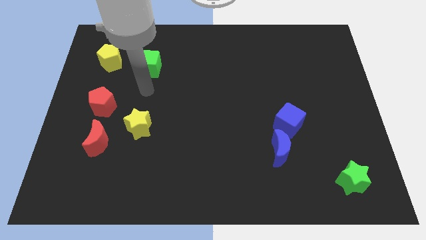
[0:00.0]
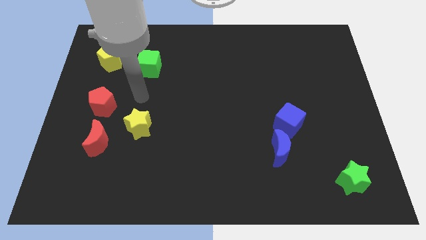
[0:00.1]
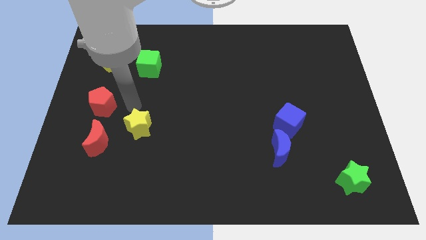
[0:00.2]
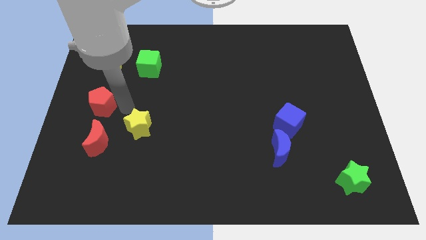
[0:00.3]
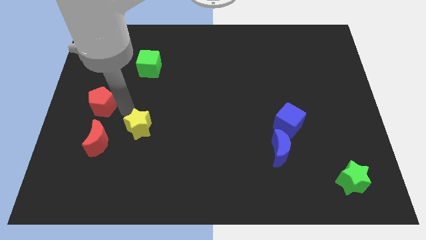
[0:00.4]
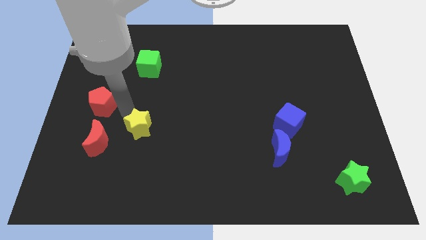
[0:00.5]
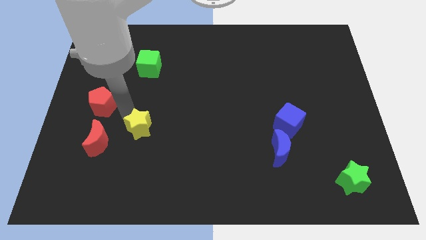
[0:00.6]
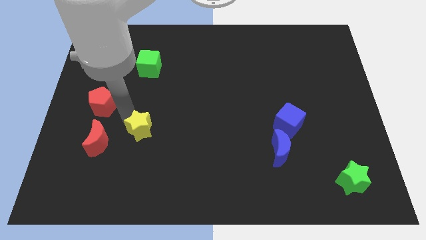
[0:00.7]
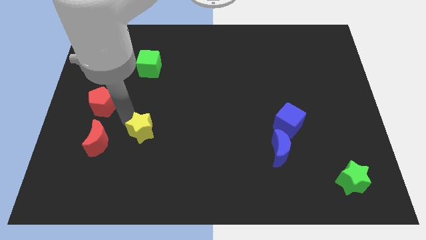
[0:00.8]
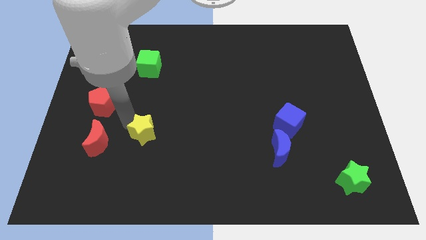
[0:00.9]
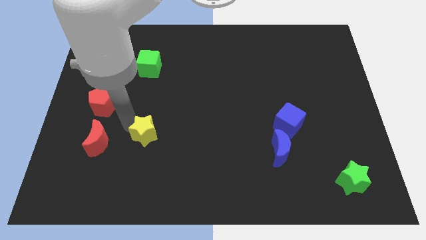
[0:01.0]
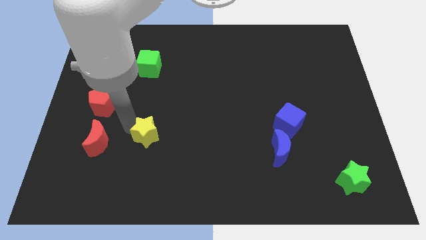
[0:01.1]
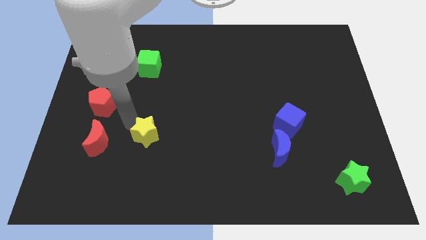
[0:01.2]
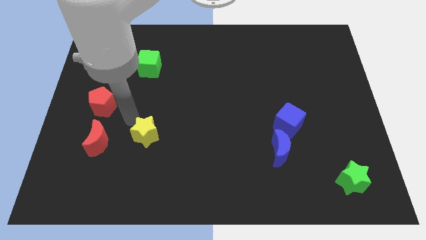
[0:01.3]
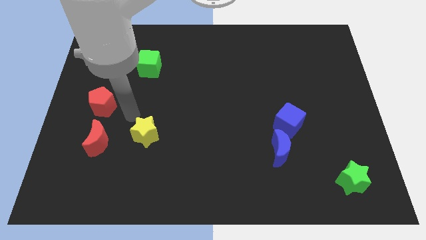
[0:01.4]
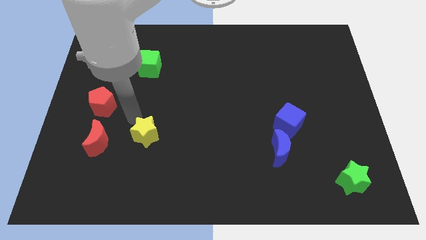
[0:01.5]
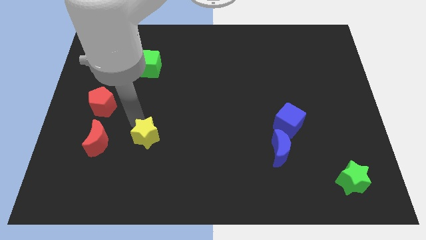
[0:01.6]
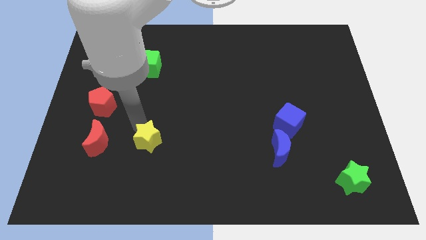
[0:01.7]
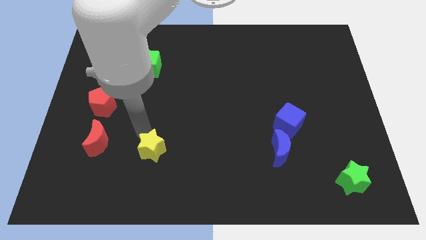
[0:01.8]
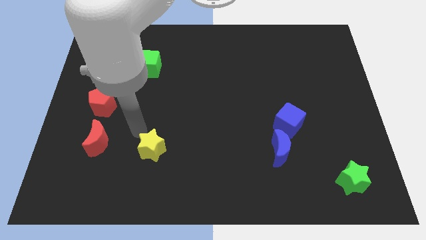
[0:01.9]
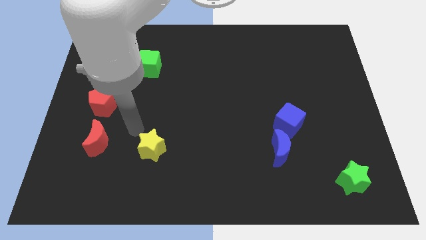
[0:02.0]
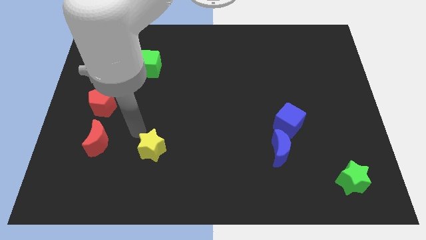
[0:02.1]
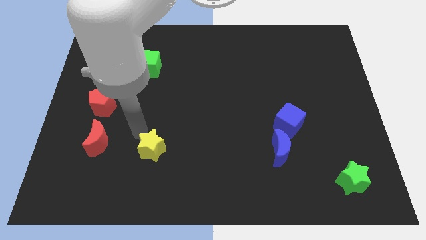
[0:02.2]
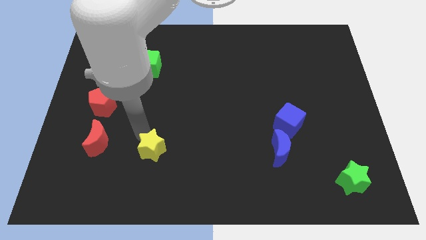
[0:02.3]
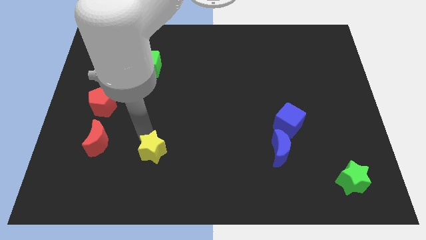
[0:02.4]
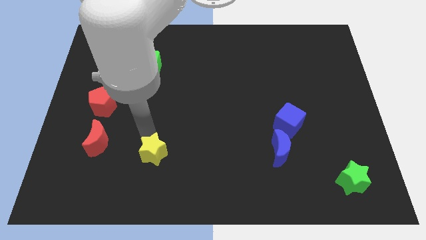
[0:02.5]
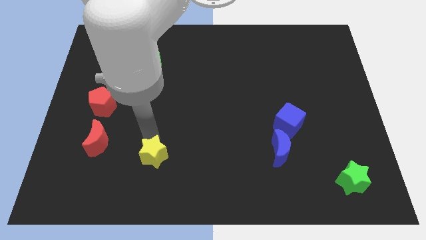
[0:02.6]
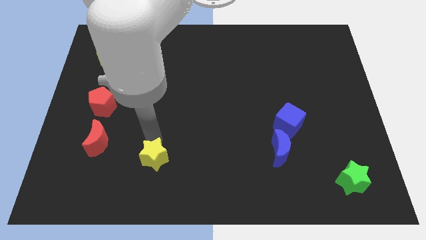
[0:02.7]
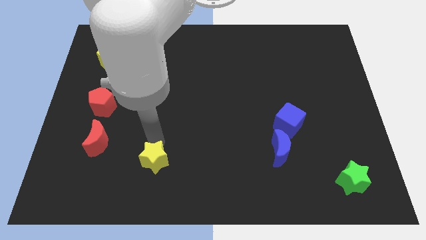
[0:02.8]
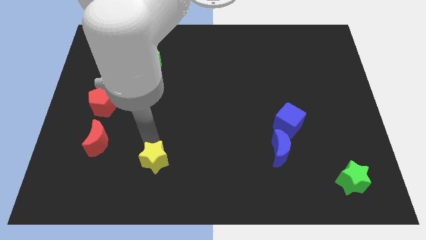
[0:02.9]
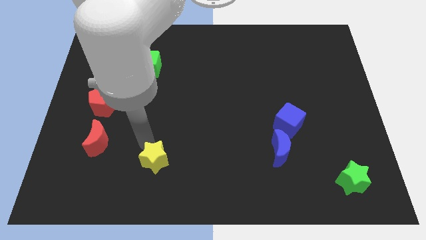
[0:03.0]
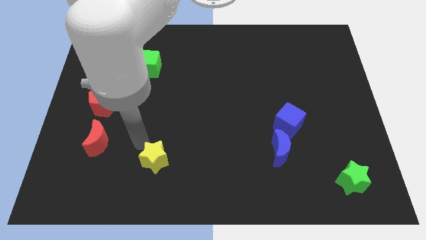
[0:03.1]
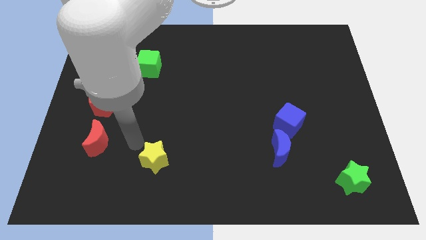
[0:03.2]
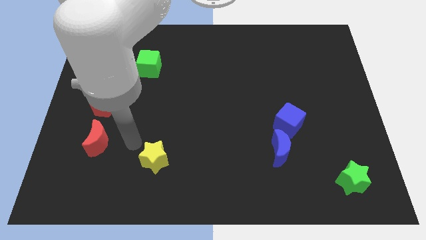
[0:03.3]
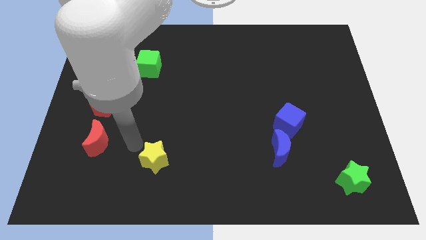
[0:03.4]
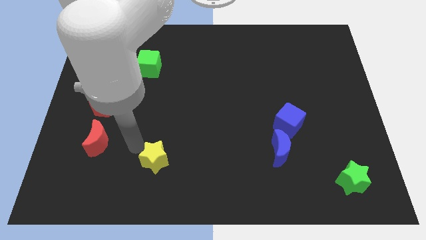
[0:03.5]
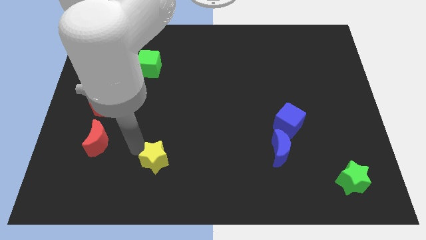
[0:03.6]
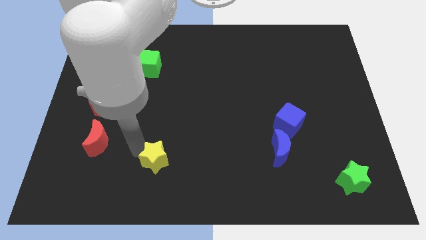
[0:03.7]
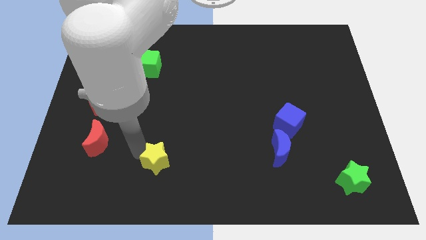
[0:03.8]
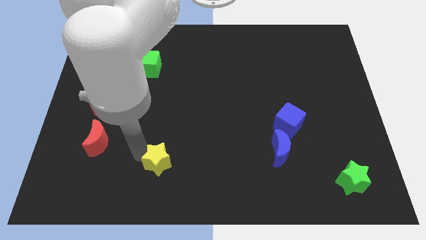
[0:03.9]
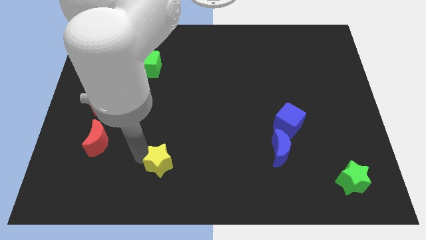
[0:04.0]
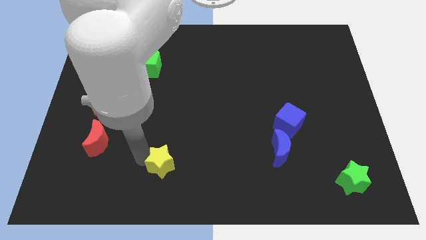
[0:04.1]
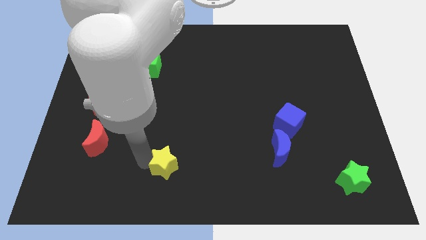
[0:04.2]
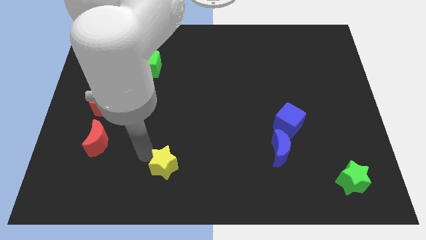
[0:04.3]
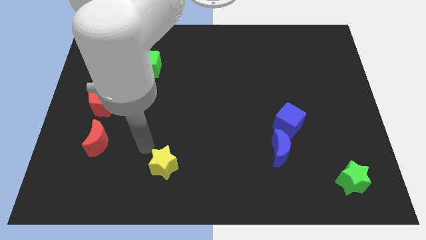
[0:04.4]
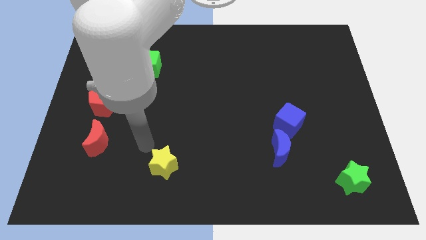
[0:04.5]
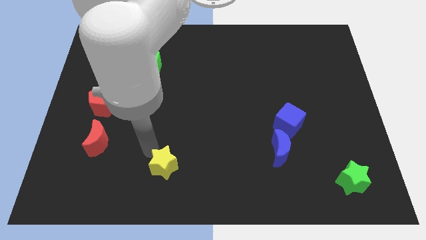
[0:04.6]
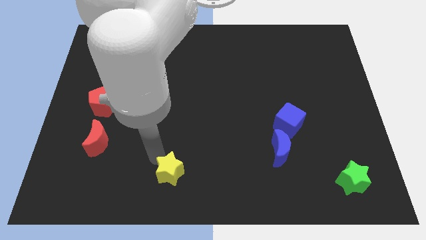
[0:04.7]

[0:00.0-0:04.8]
push the yellow star to the bottom

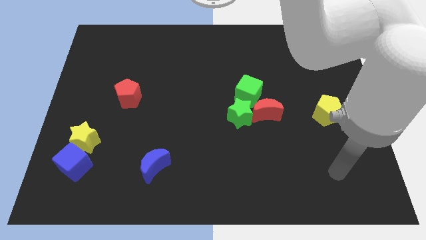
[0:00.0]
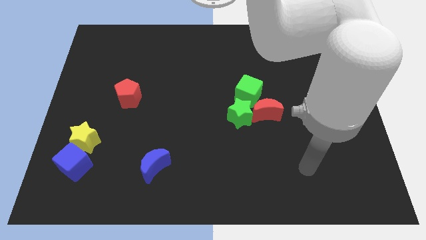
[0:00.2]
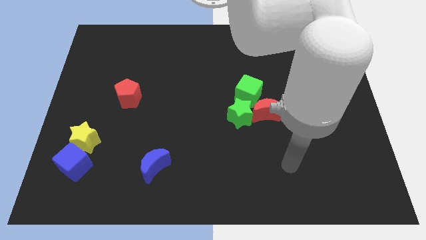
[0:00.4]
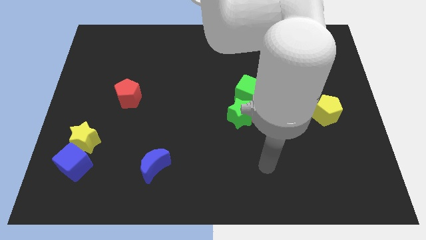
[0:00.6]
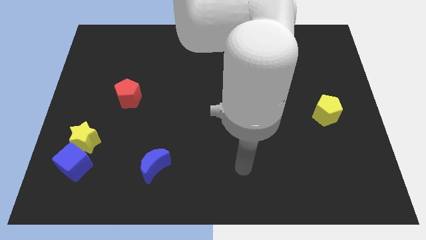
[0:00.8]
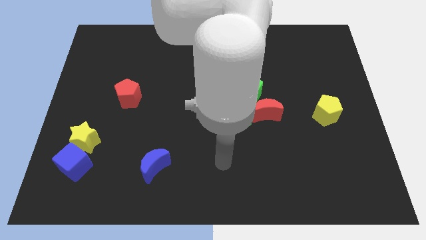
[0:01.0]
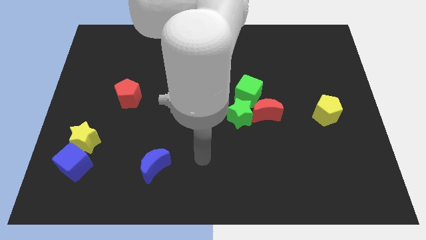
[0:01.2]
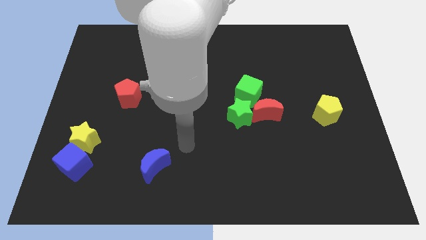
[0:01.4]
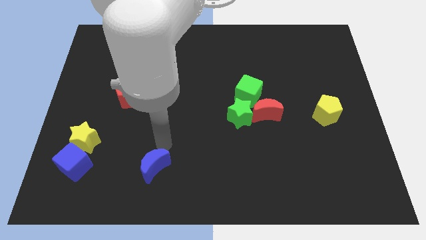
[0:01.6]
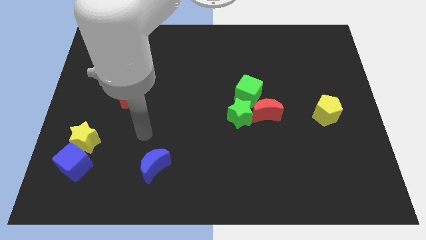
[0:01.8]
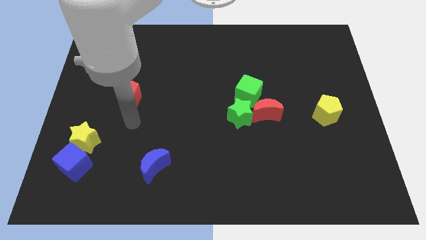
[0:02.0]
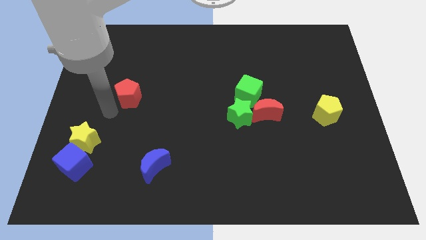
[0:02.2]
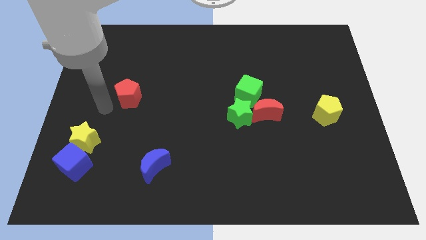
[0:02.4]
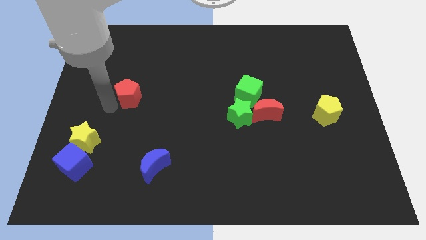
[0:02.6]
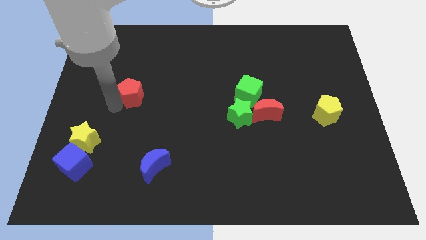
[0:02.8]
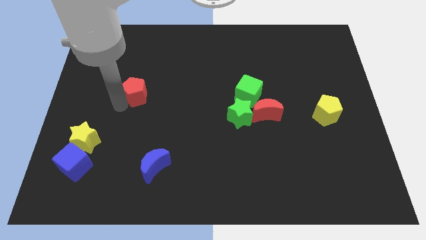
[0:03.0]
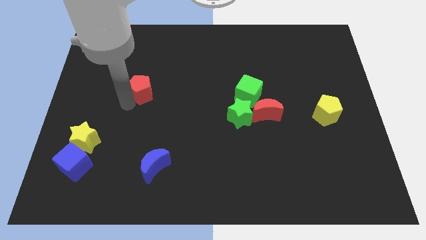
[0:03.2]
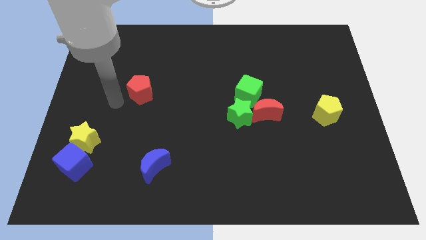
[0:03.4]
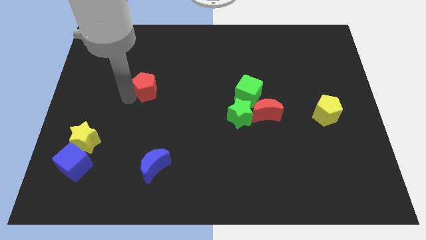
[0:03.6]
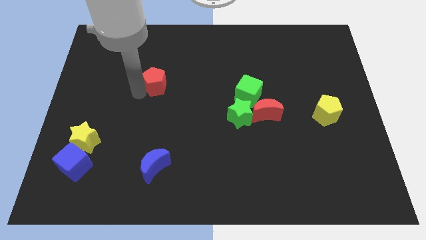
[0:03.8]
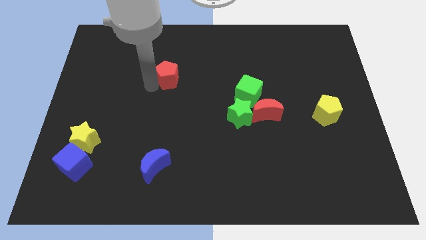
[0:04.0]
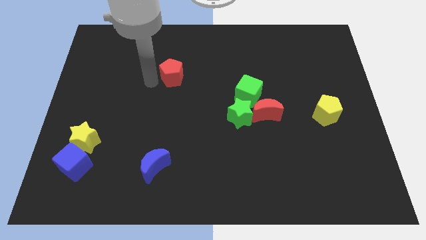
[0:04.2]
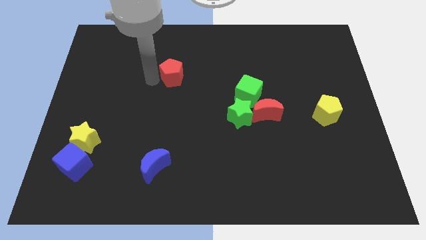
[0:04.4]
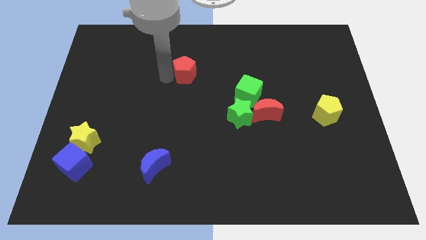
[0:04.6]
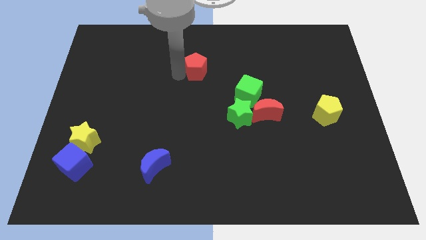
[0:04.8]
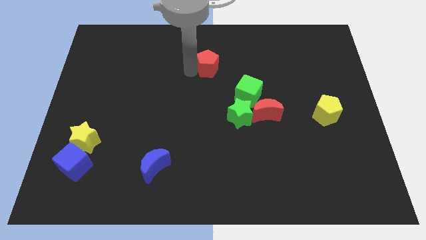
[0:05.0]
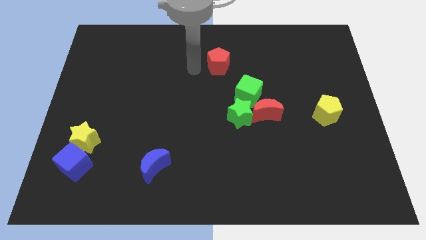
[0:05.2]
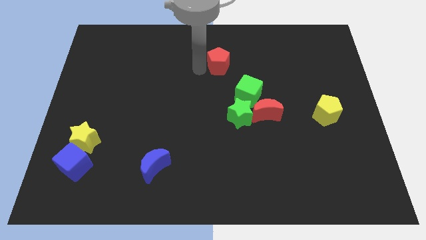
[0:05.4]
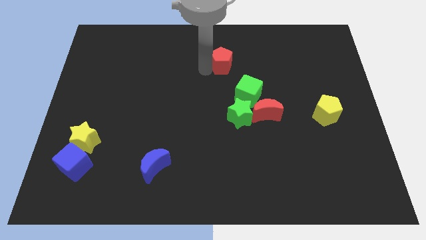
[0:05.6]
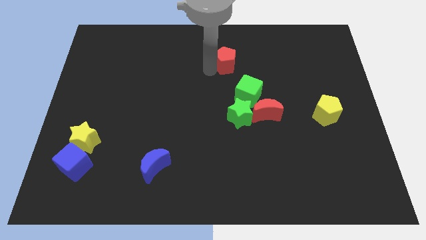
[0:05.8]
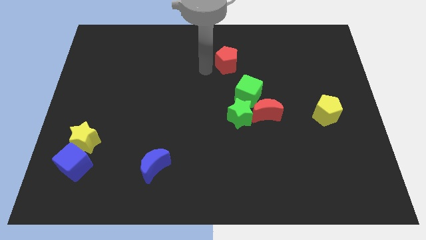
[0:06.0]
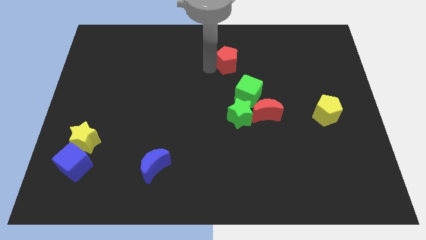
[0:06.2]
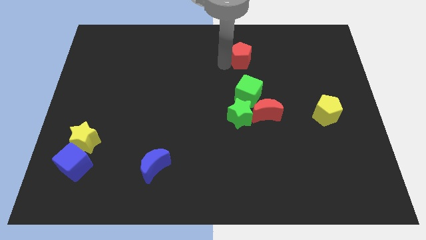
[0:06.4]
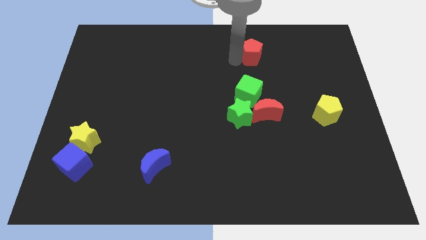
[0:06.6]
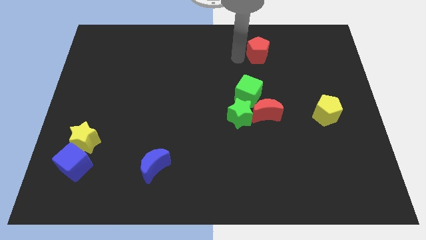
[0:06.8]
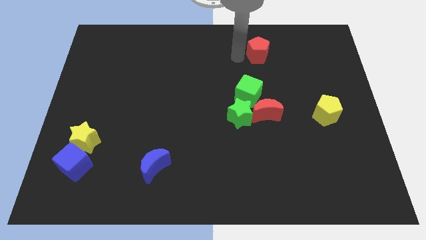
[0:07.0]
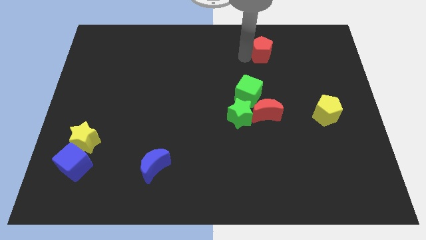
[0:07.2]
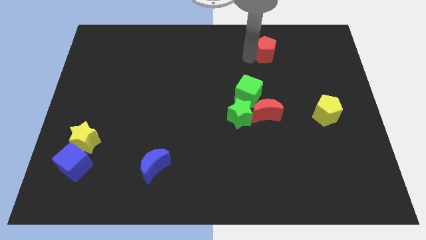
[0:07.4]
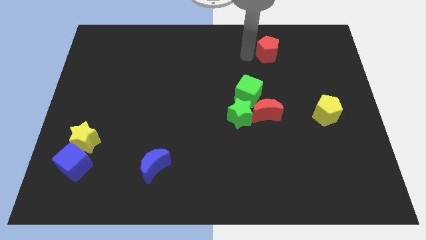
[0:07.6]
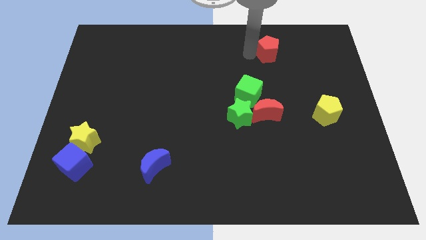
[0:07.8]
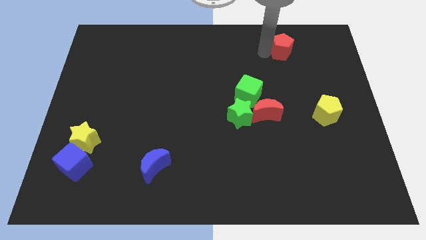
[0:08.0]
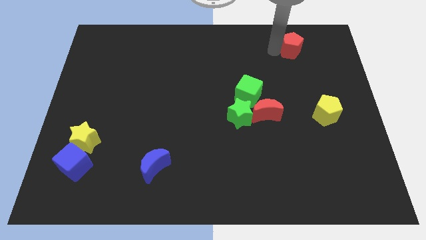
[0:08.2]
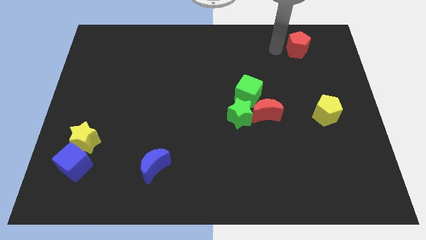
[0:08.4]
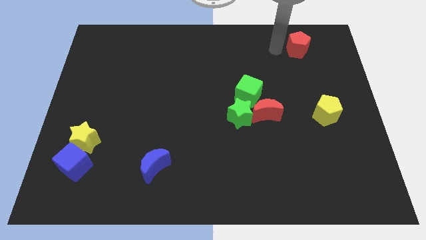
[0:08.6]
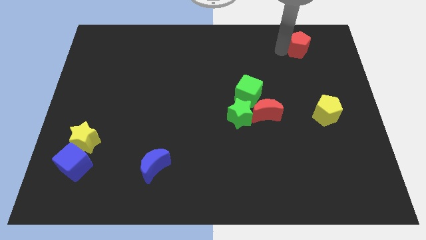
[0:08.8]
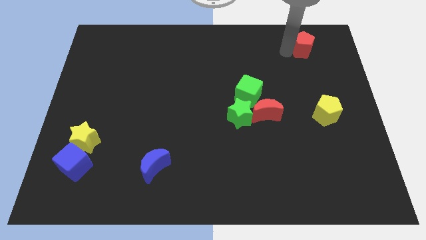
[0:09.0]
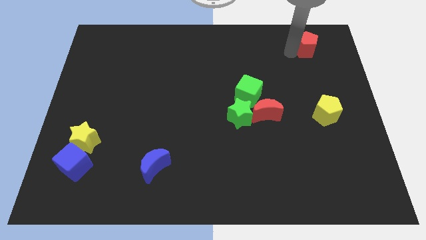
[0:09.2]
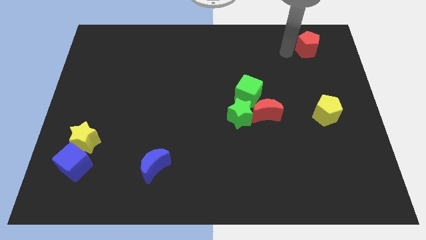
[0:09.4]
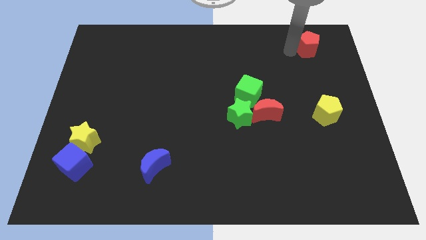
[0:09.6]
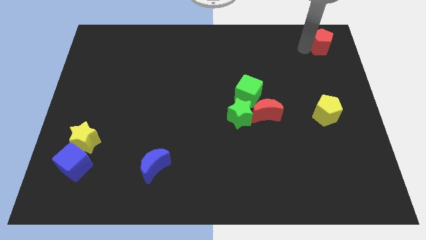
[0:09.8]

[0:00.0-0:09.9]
put the red pentagon to the top right corner
